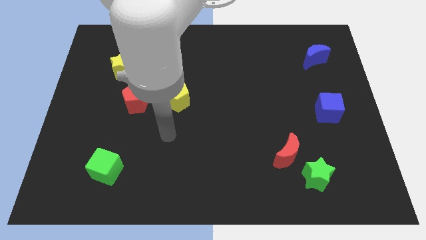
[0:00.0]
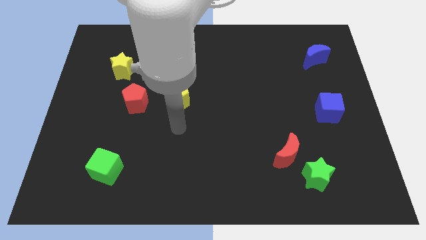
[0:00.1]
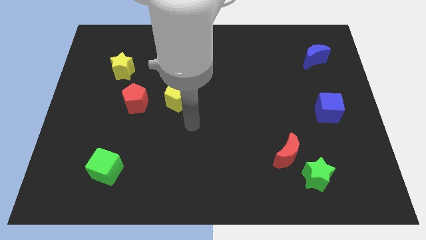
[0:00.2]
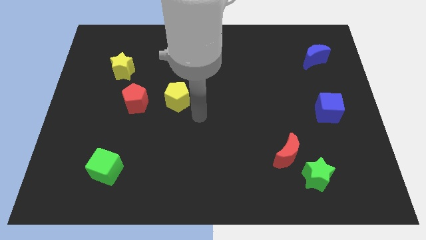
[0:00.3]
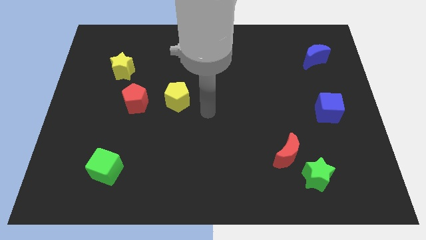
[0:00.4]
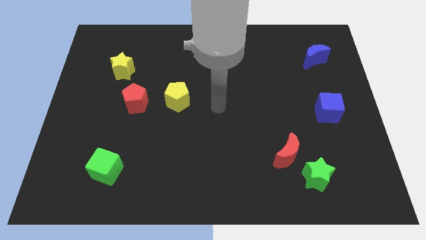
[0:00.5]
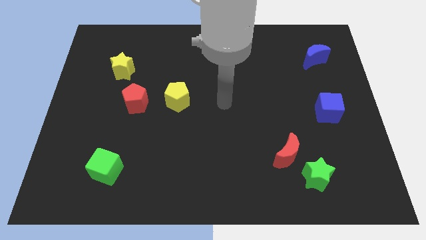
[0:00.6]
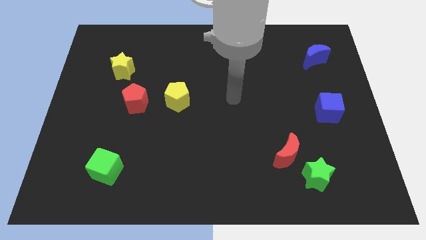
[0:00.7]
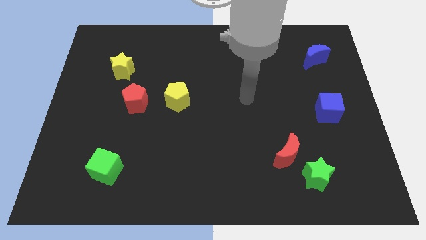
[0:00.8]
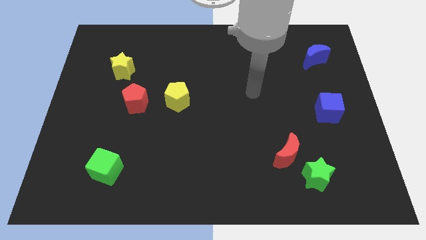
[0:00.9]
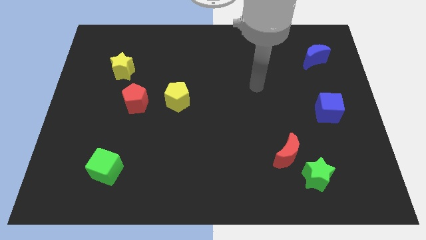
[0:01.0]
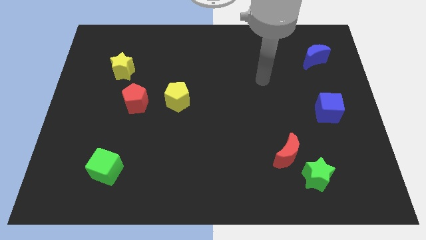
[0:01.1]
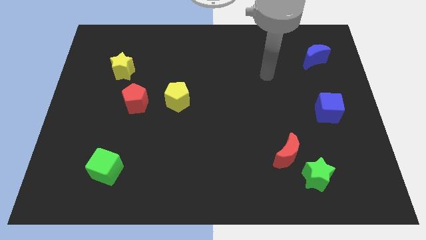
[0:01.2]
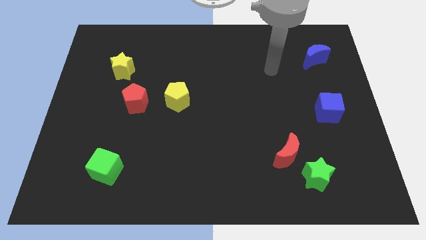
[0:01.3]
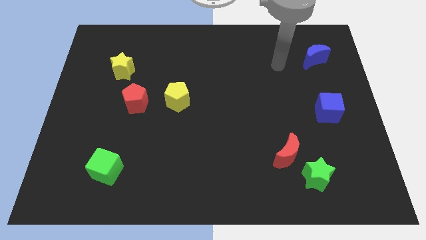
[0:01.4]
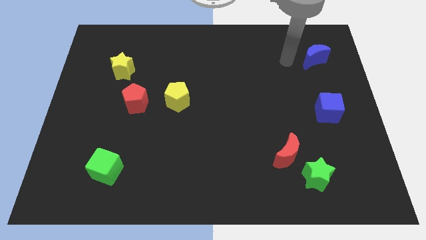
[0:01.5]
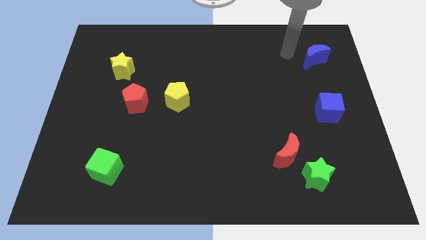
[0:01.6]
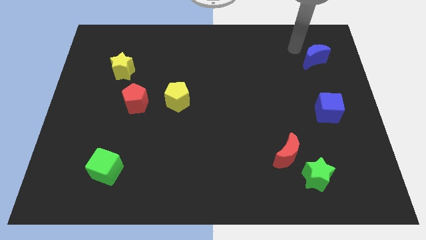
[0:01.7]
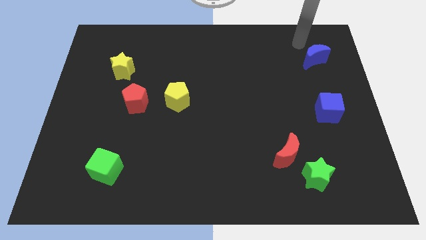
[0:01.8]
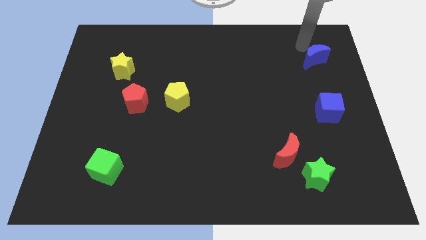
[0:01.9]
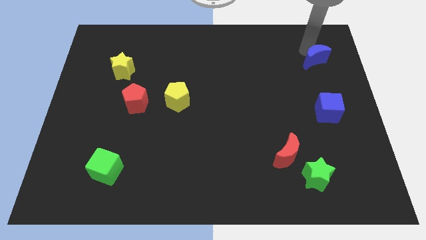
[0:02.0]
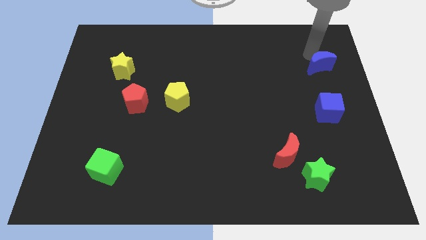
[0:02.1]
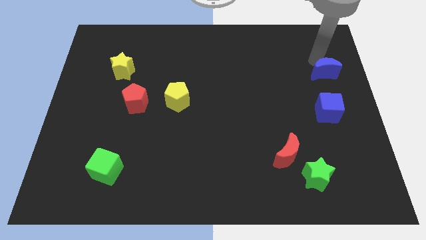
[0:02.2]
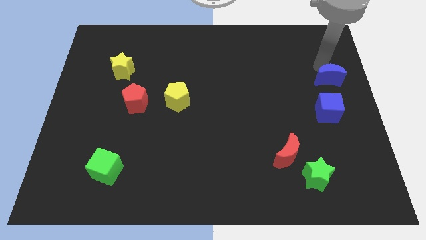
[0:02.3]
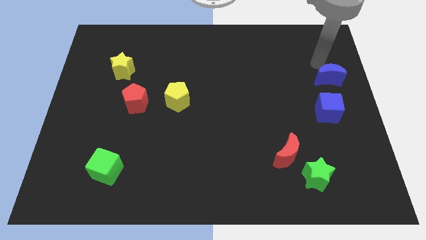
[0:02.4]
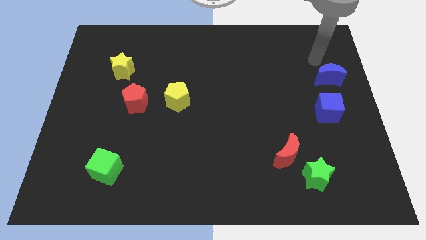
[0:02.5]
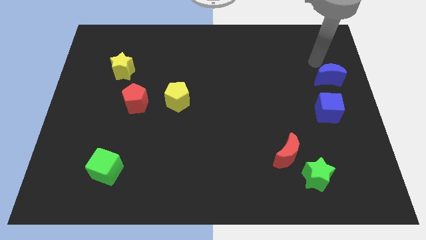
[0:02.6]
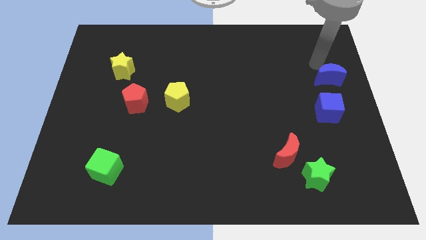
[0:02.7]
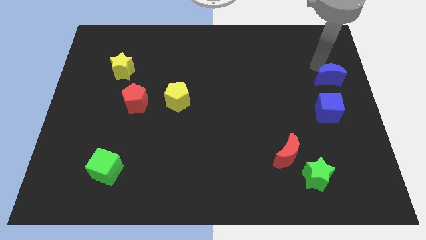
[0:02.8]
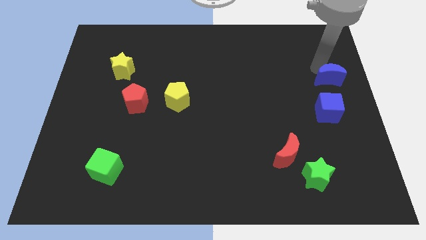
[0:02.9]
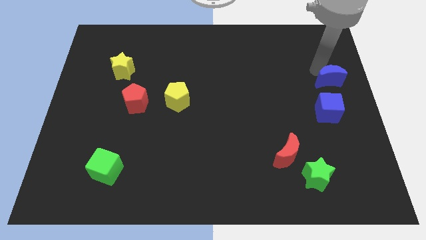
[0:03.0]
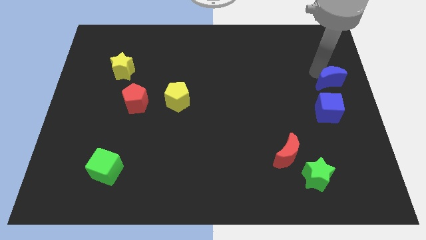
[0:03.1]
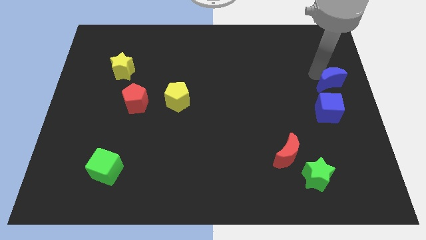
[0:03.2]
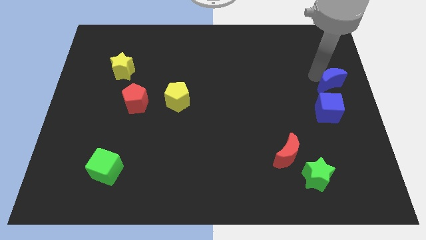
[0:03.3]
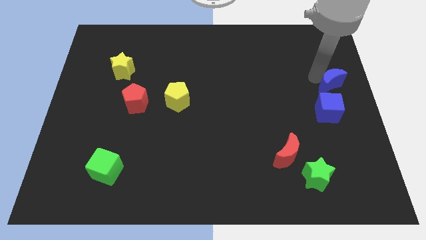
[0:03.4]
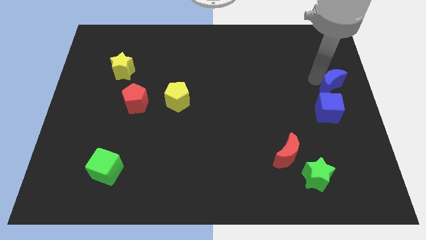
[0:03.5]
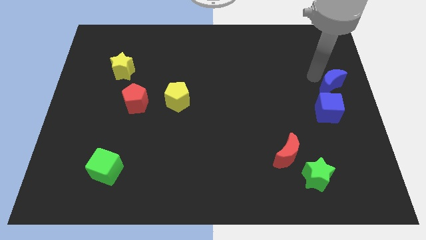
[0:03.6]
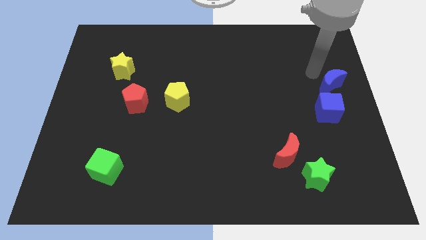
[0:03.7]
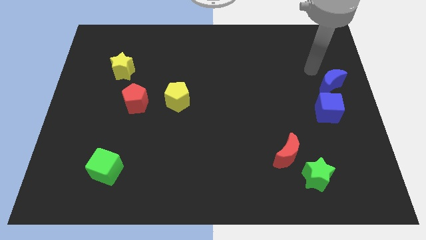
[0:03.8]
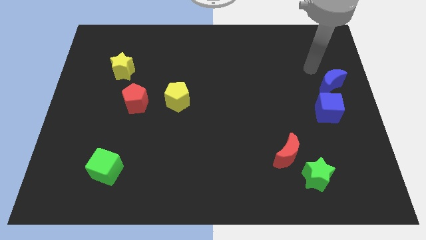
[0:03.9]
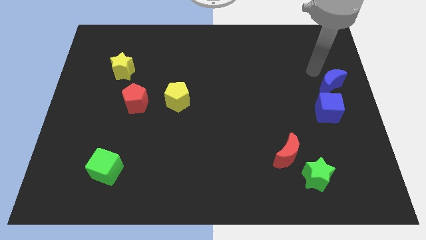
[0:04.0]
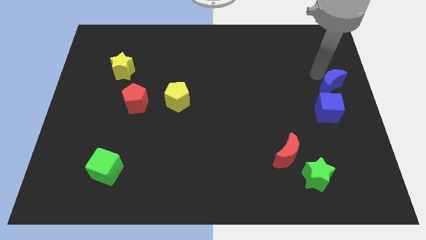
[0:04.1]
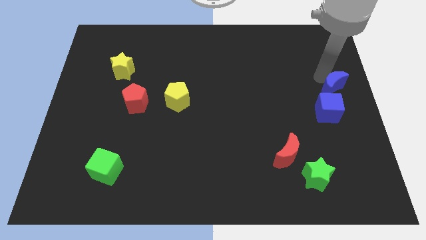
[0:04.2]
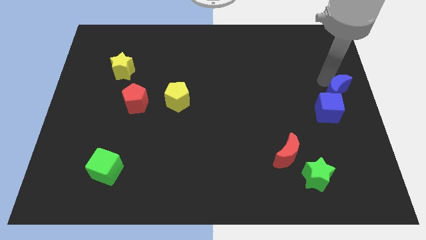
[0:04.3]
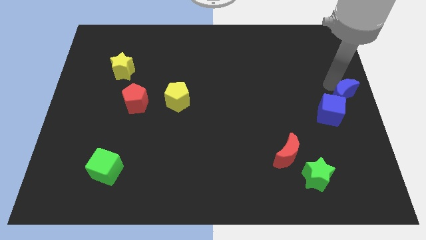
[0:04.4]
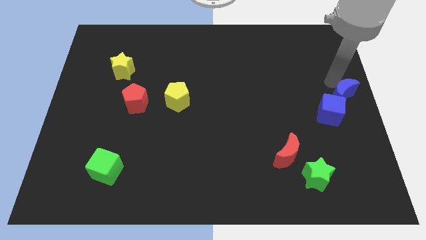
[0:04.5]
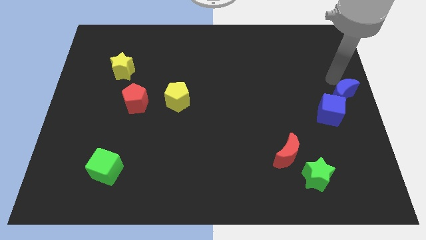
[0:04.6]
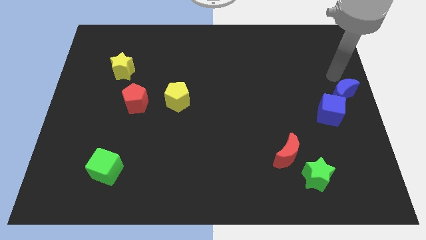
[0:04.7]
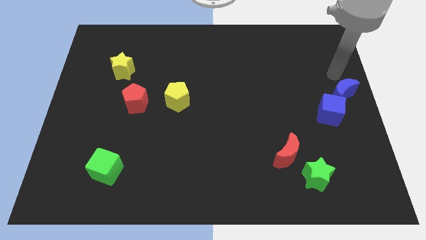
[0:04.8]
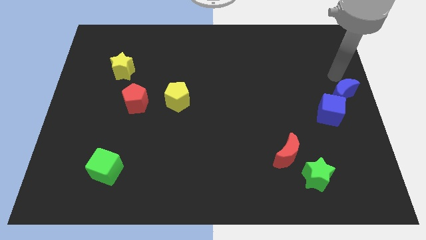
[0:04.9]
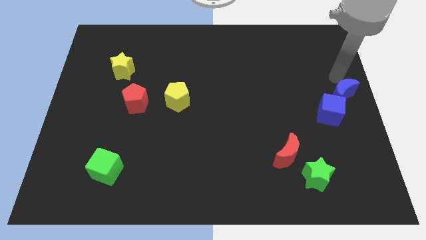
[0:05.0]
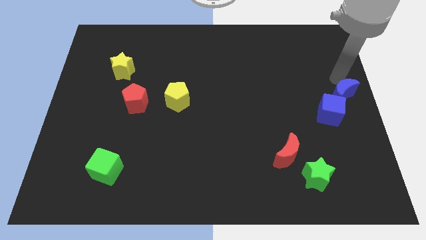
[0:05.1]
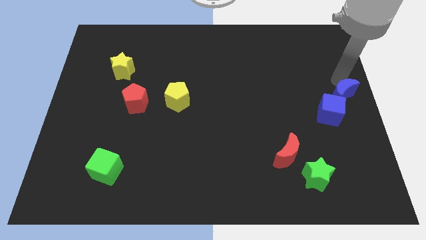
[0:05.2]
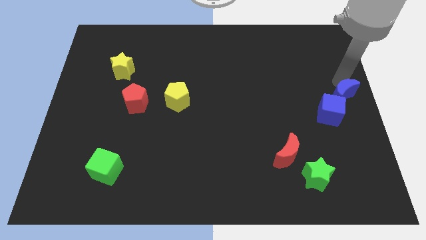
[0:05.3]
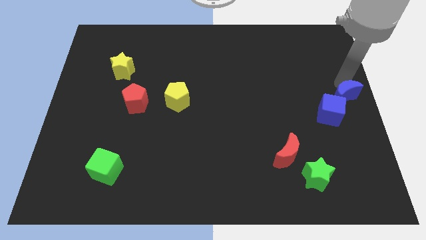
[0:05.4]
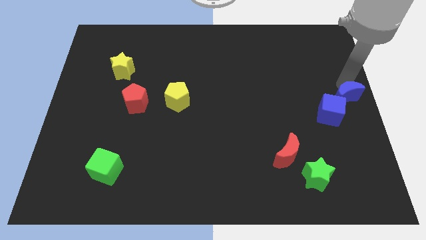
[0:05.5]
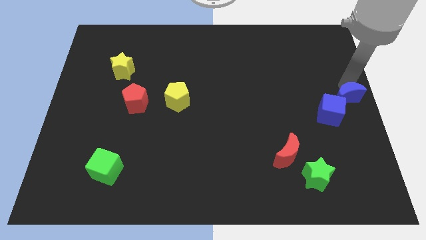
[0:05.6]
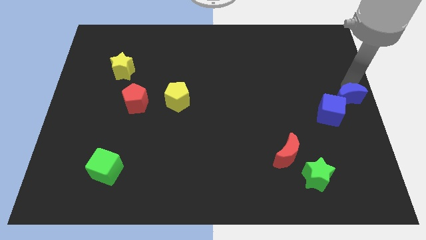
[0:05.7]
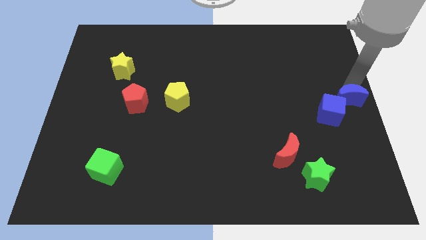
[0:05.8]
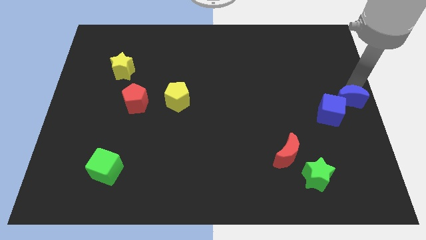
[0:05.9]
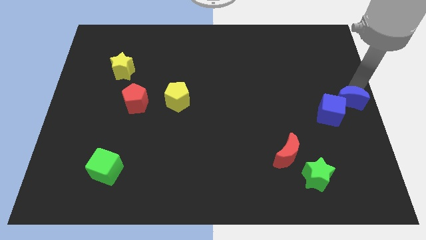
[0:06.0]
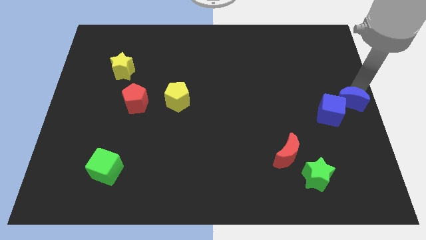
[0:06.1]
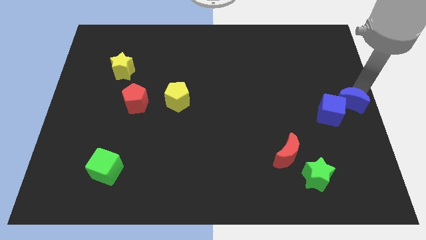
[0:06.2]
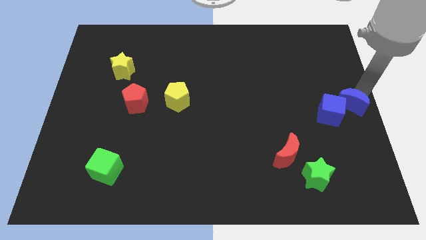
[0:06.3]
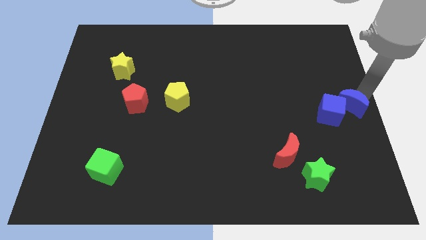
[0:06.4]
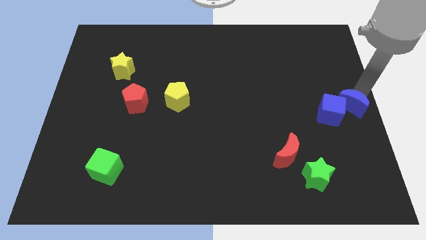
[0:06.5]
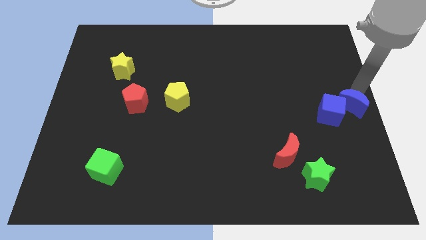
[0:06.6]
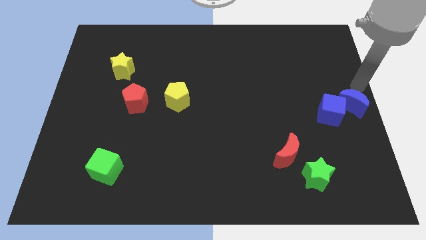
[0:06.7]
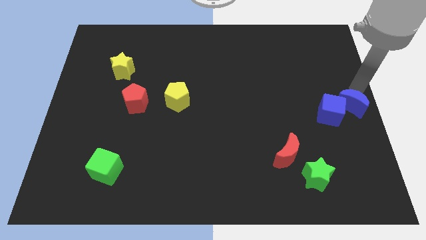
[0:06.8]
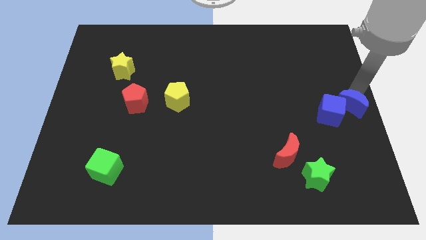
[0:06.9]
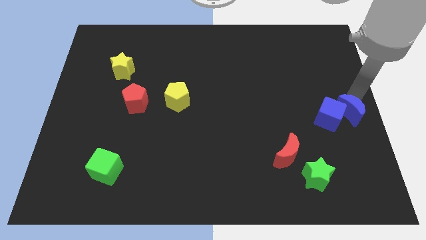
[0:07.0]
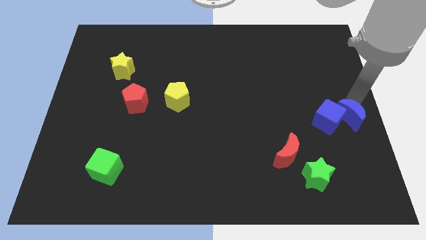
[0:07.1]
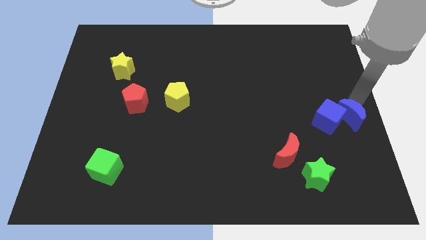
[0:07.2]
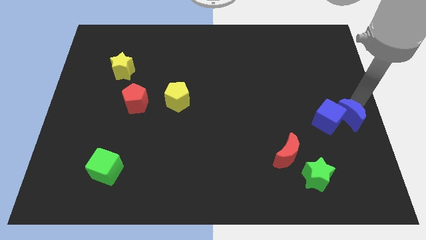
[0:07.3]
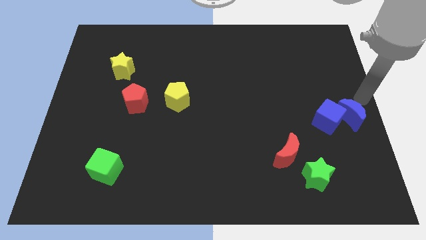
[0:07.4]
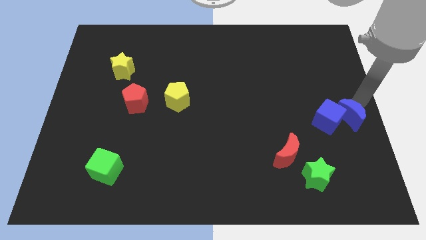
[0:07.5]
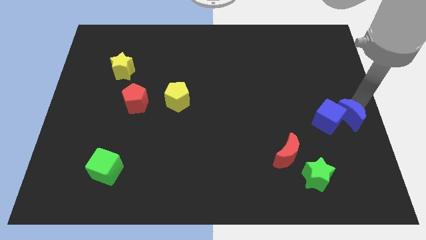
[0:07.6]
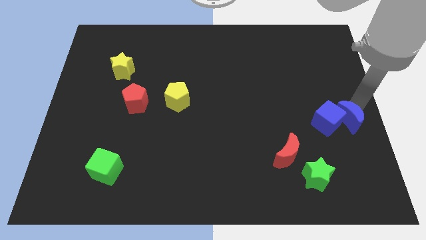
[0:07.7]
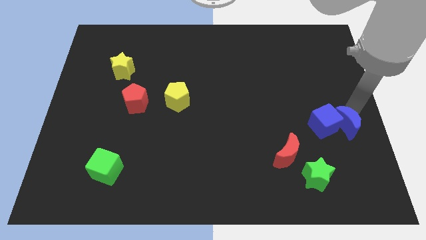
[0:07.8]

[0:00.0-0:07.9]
push the blue moon down
